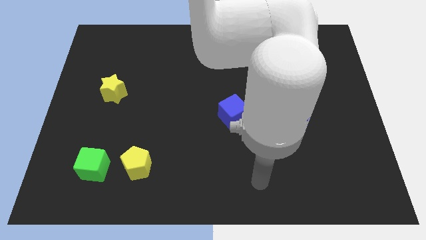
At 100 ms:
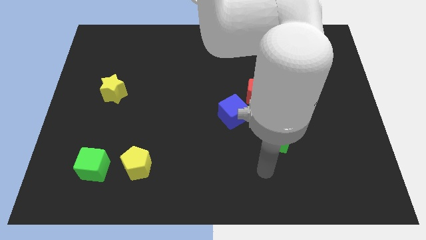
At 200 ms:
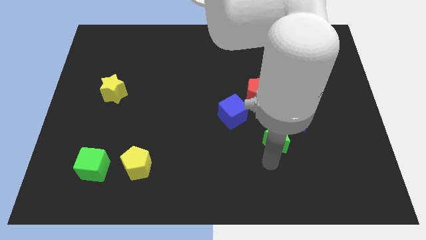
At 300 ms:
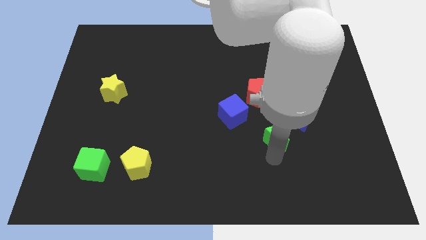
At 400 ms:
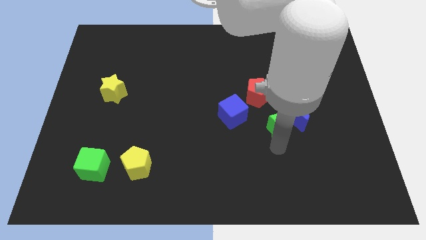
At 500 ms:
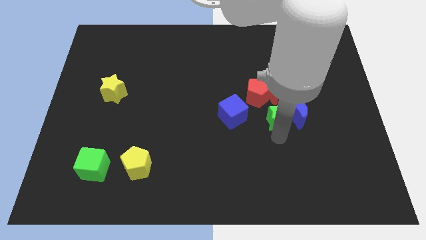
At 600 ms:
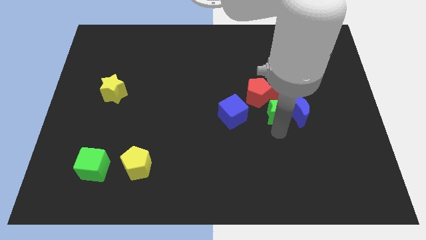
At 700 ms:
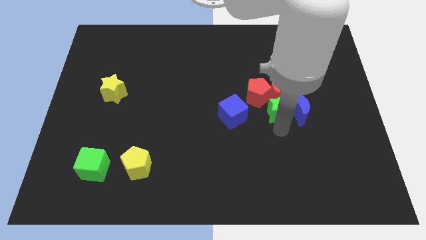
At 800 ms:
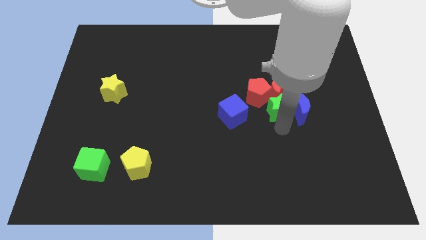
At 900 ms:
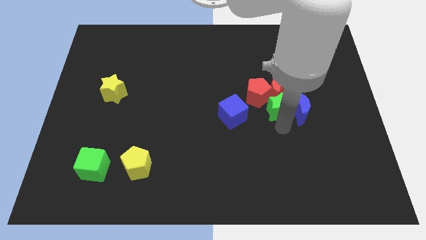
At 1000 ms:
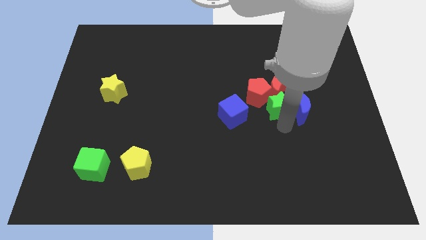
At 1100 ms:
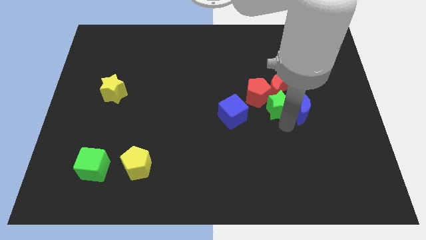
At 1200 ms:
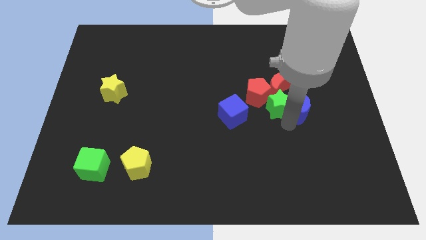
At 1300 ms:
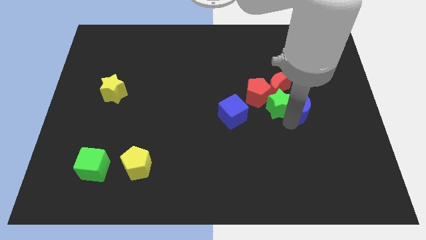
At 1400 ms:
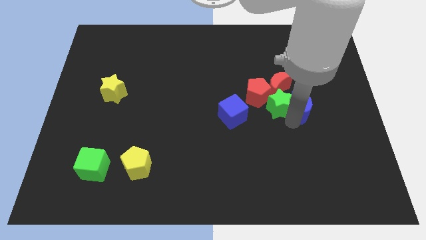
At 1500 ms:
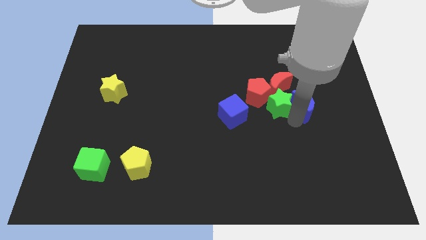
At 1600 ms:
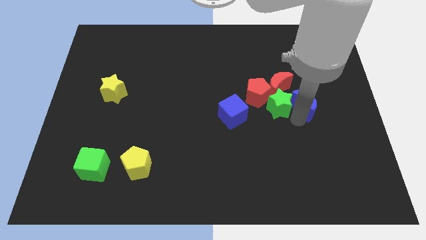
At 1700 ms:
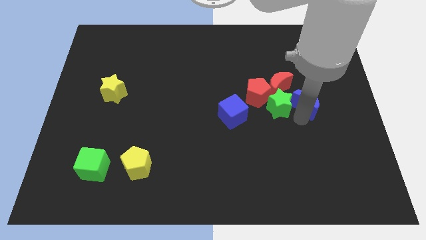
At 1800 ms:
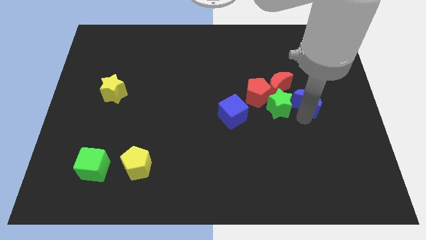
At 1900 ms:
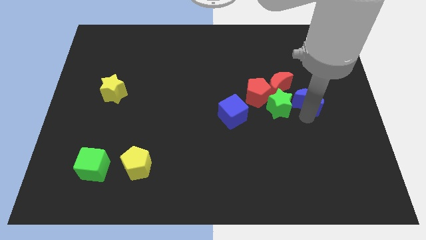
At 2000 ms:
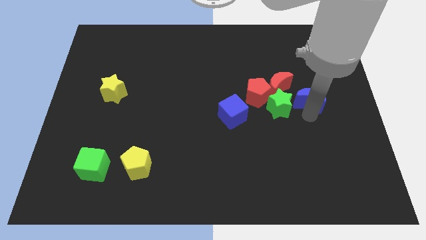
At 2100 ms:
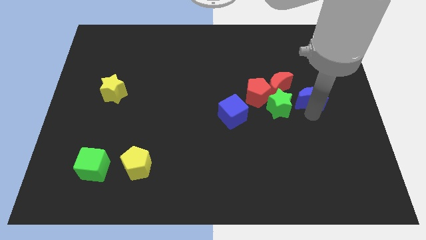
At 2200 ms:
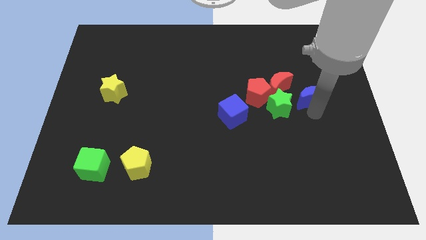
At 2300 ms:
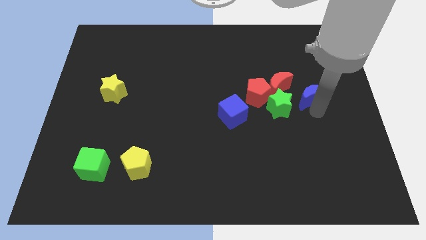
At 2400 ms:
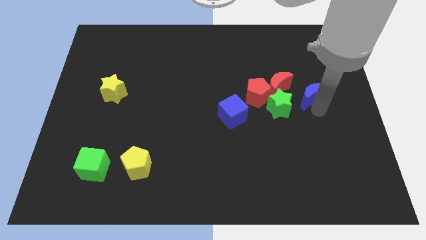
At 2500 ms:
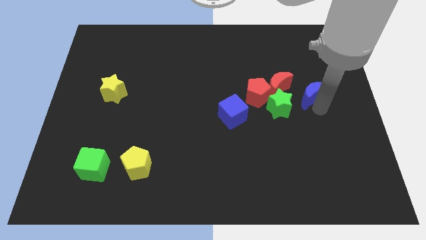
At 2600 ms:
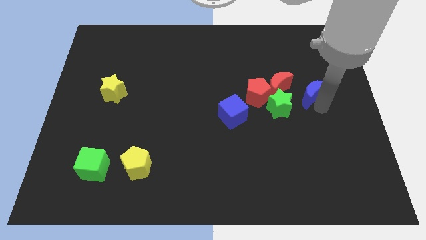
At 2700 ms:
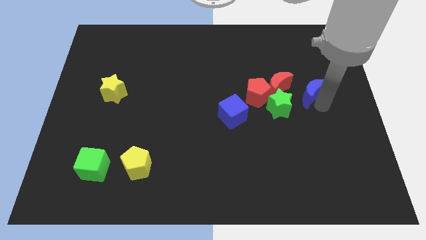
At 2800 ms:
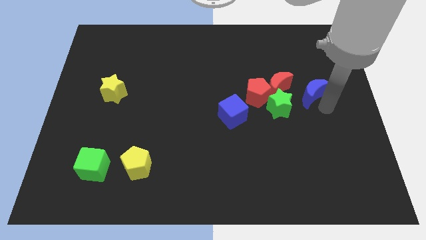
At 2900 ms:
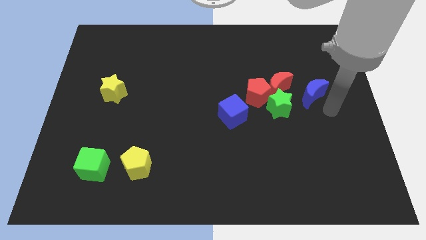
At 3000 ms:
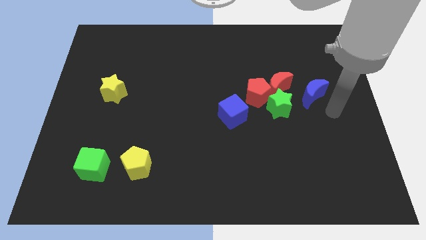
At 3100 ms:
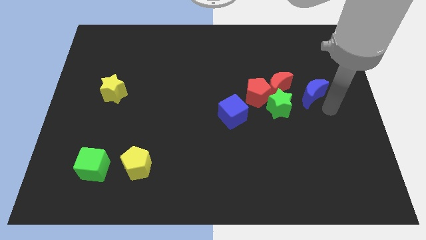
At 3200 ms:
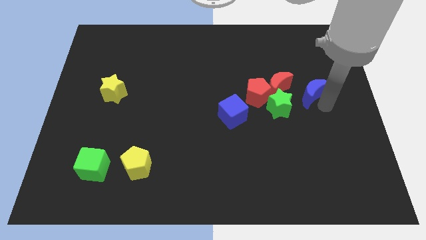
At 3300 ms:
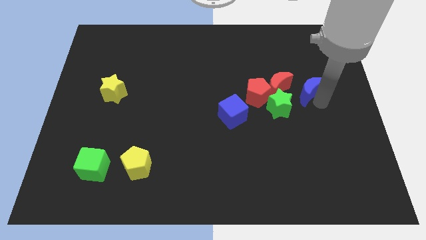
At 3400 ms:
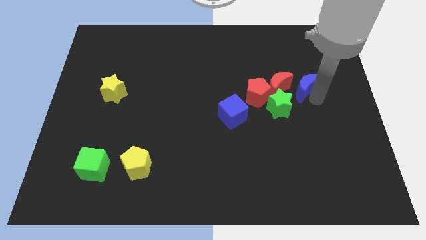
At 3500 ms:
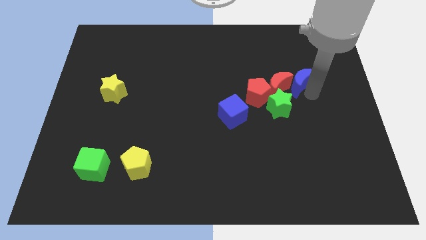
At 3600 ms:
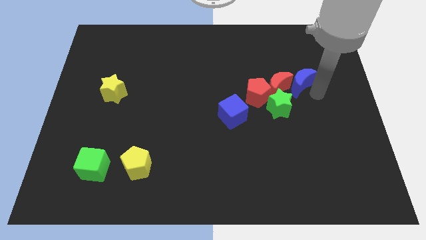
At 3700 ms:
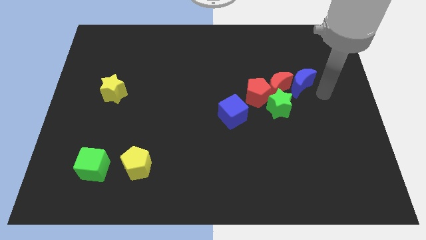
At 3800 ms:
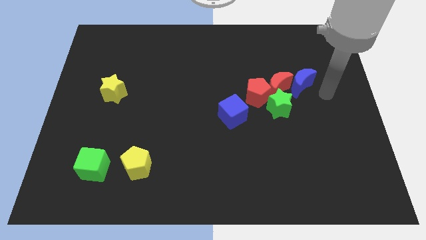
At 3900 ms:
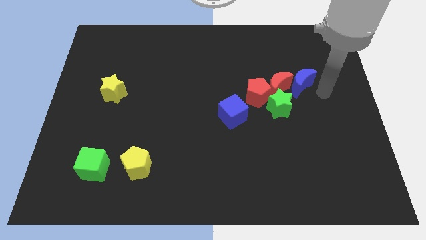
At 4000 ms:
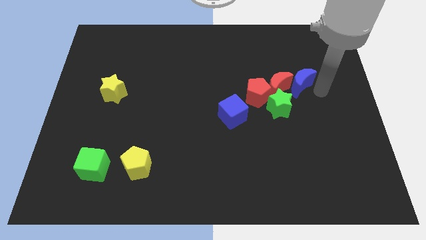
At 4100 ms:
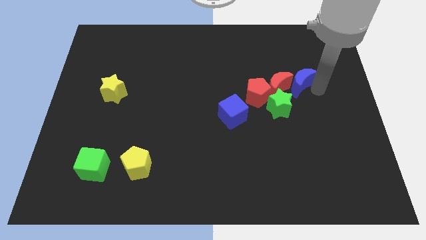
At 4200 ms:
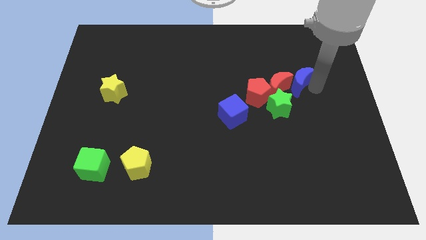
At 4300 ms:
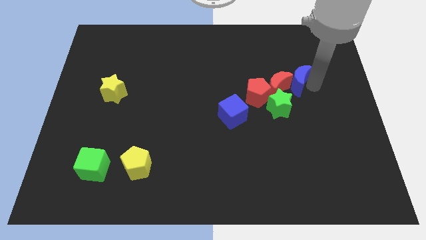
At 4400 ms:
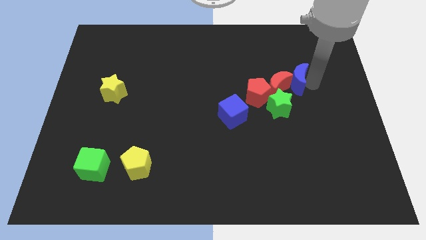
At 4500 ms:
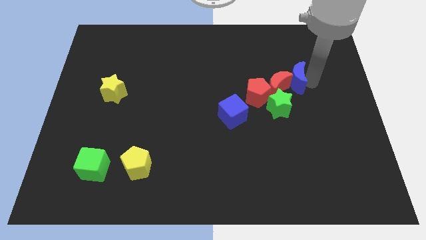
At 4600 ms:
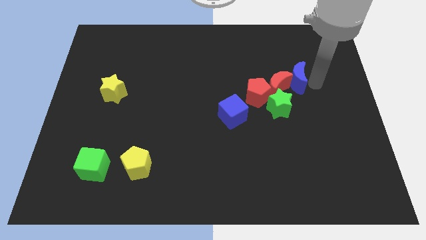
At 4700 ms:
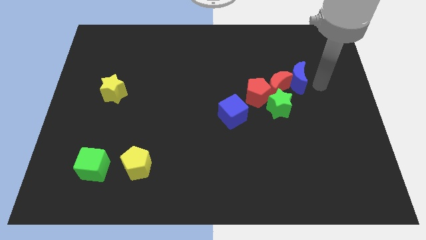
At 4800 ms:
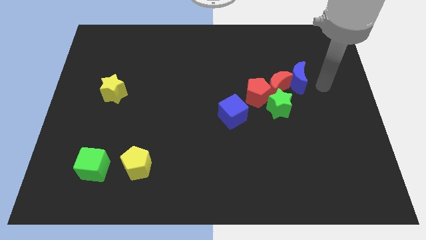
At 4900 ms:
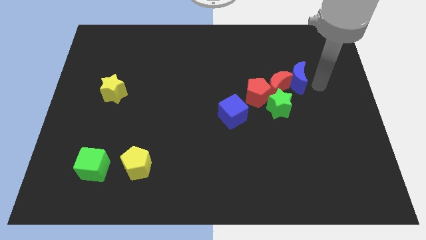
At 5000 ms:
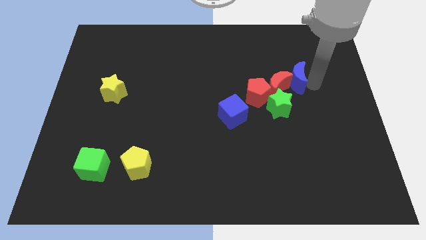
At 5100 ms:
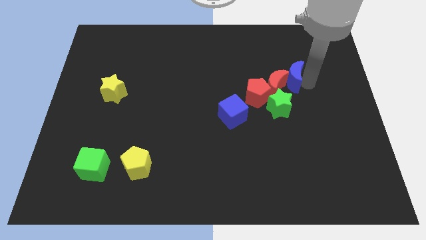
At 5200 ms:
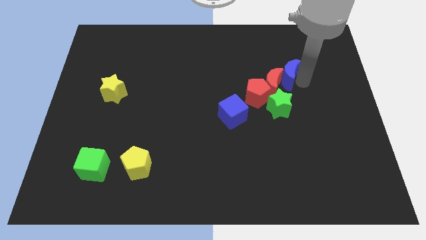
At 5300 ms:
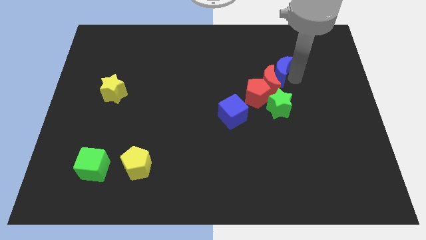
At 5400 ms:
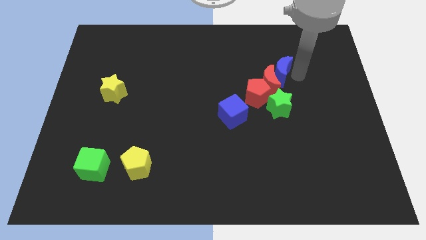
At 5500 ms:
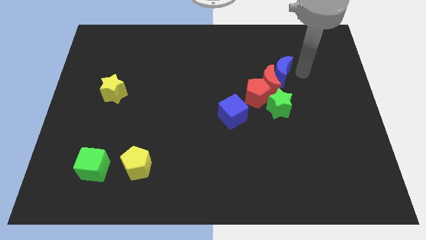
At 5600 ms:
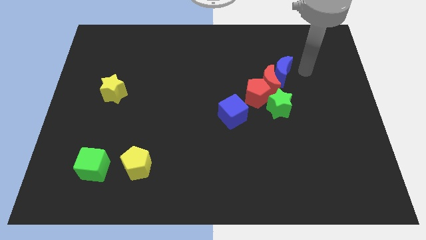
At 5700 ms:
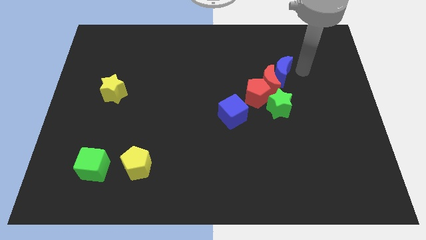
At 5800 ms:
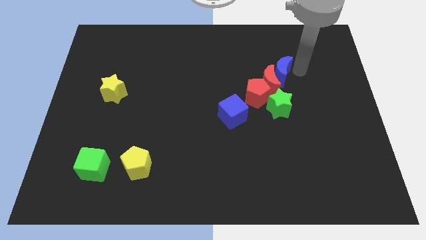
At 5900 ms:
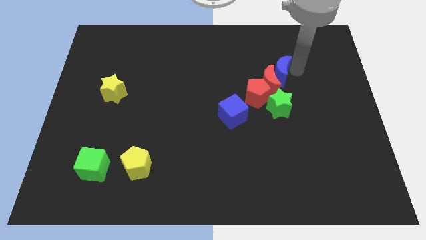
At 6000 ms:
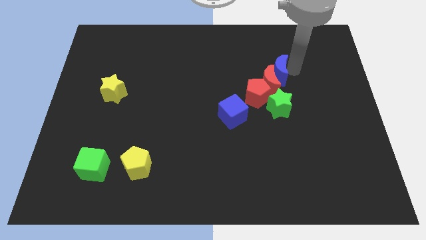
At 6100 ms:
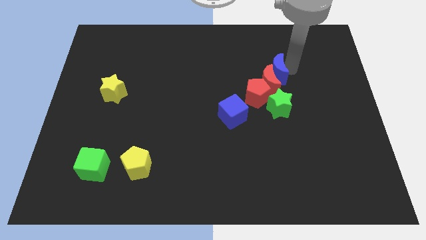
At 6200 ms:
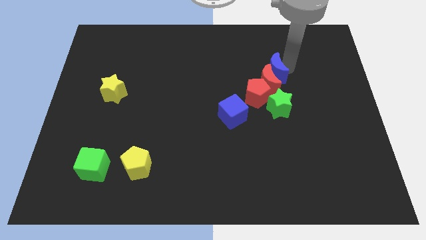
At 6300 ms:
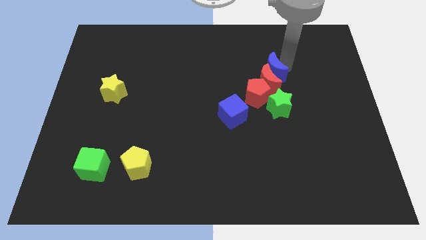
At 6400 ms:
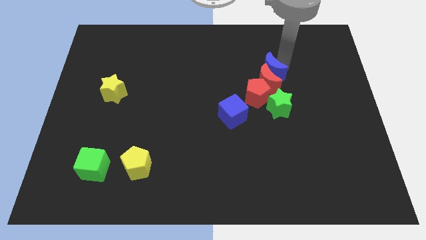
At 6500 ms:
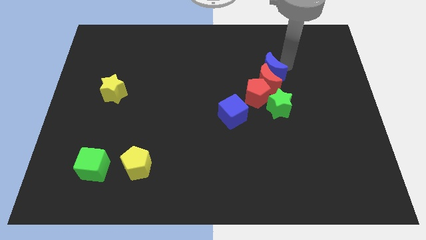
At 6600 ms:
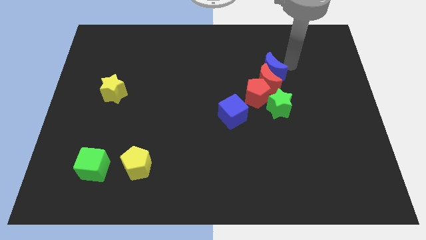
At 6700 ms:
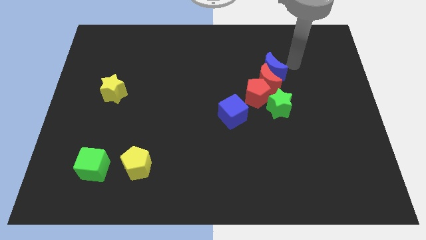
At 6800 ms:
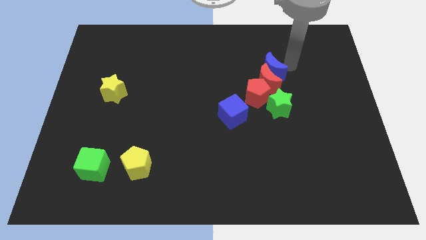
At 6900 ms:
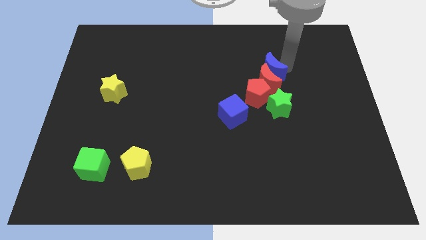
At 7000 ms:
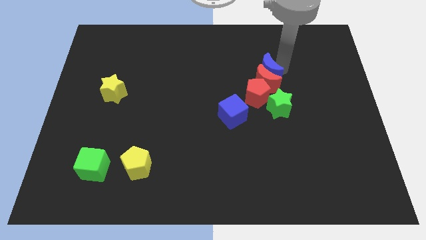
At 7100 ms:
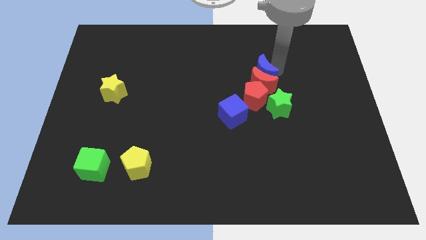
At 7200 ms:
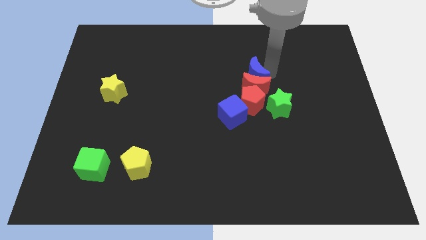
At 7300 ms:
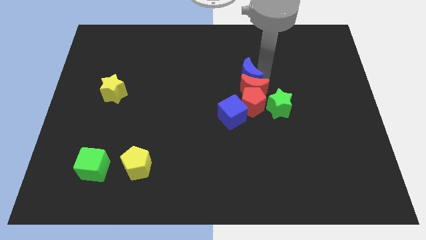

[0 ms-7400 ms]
push the blue moon to the top side of the blue cube
